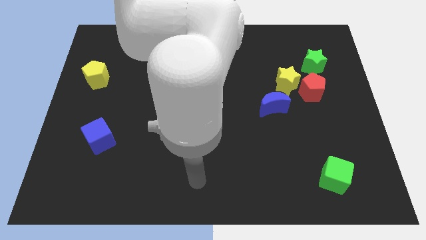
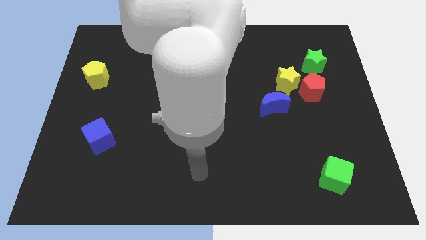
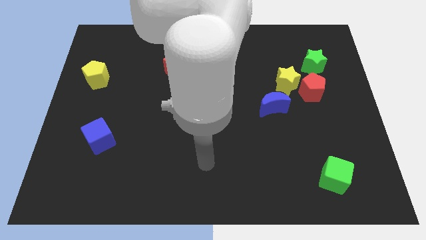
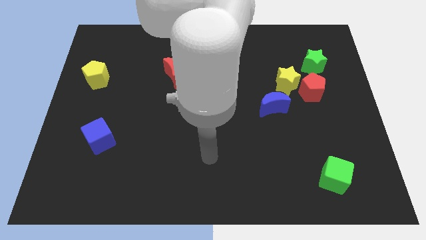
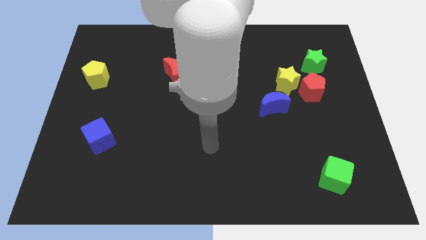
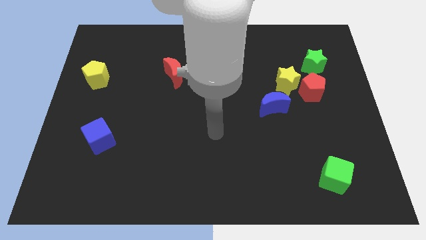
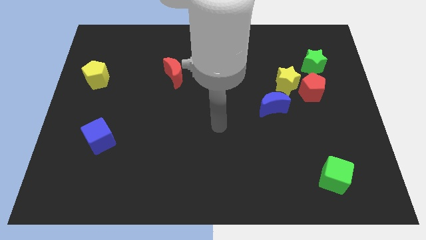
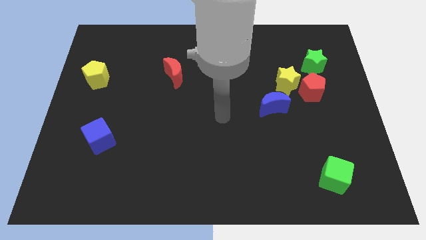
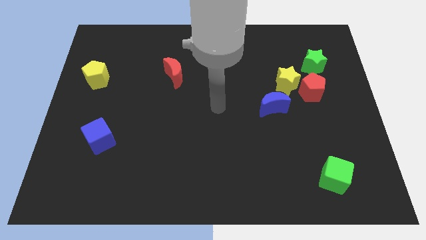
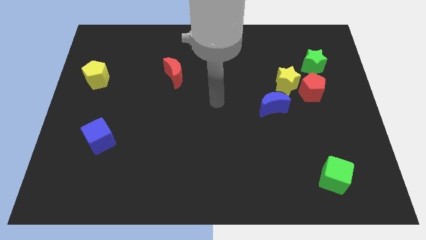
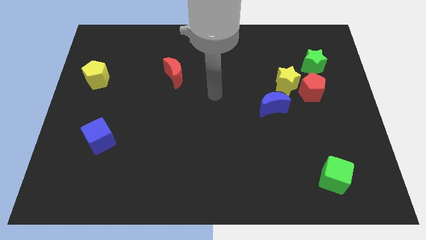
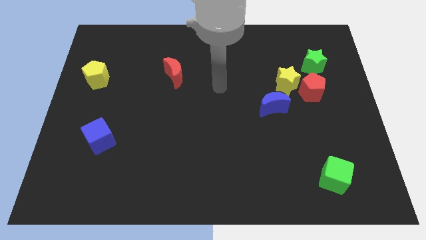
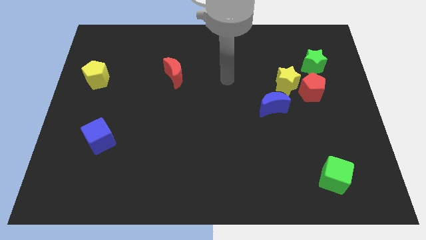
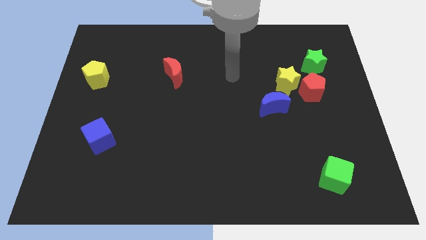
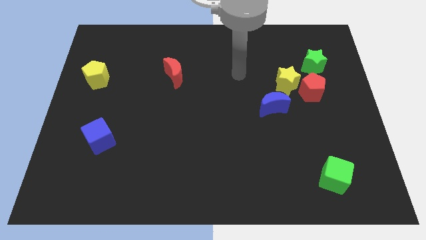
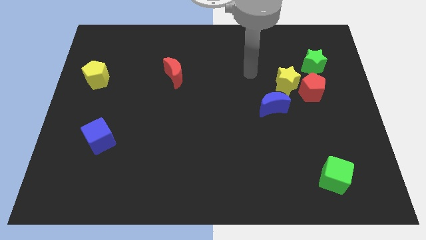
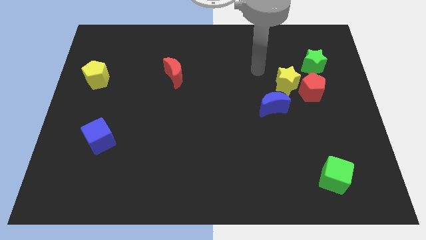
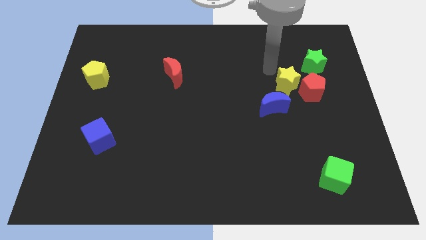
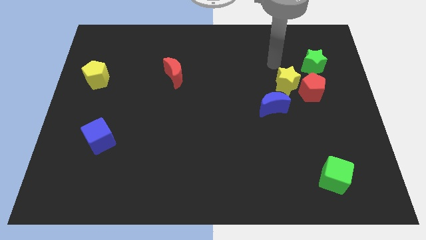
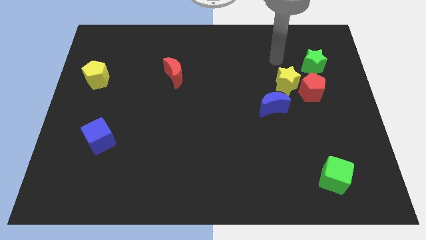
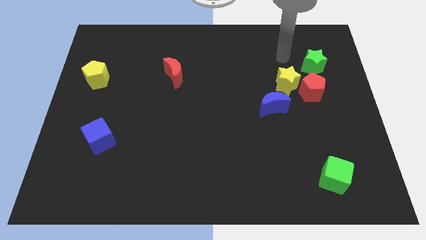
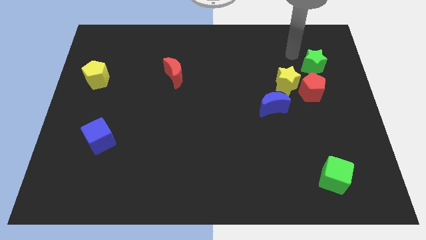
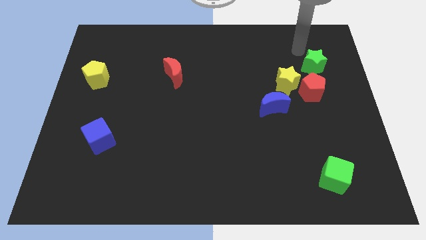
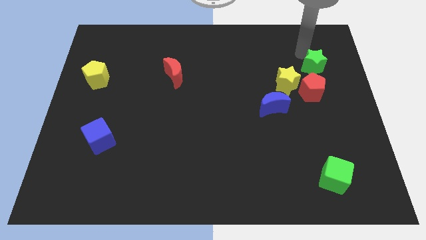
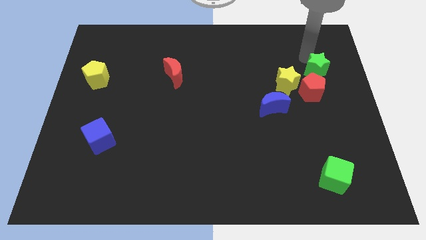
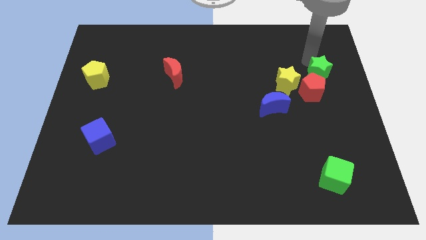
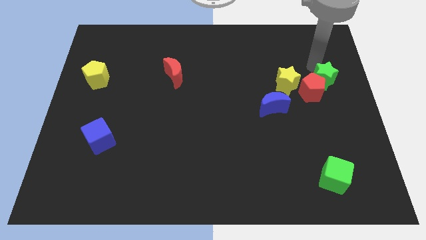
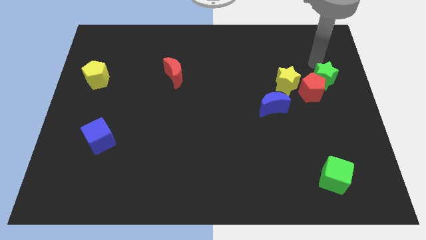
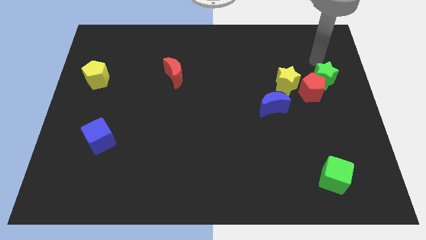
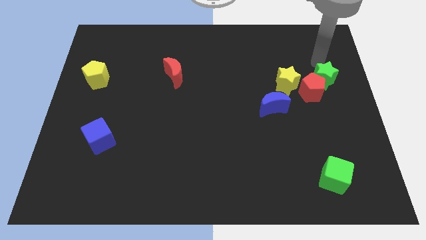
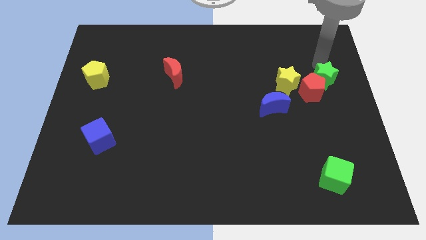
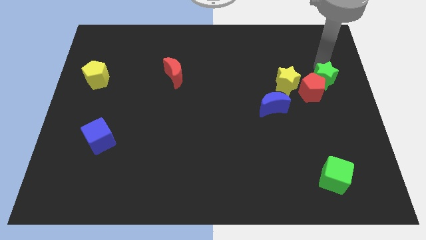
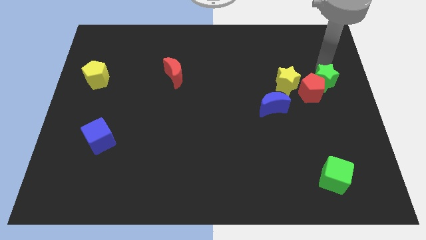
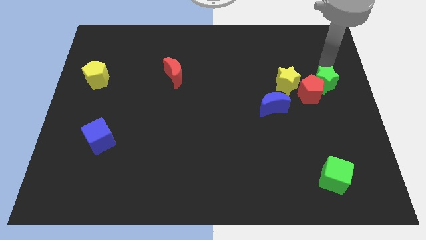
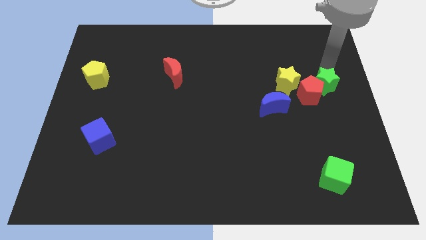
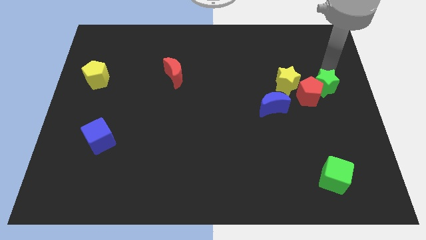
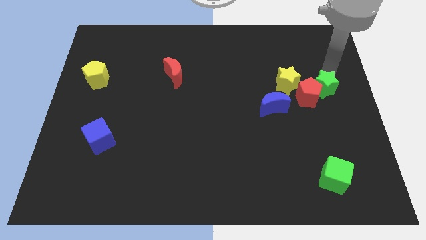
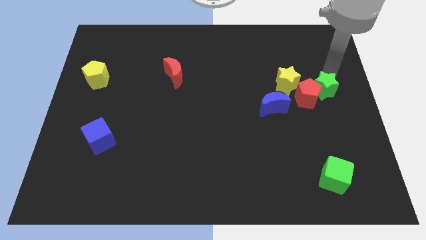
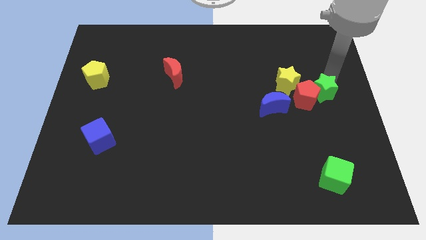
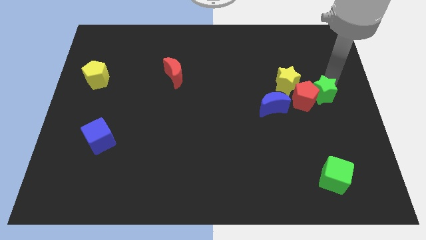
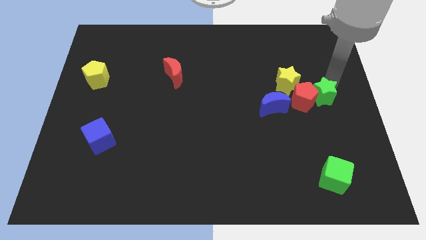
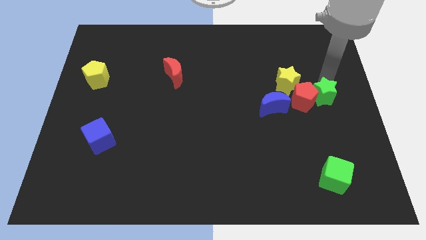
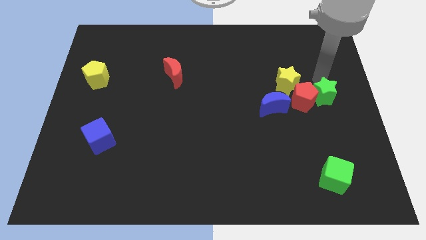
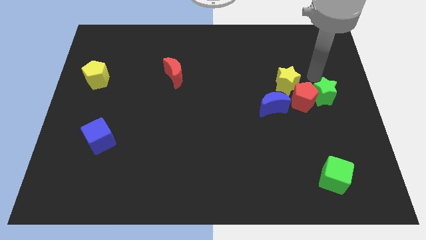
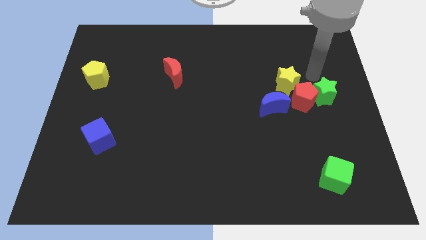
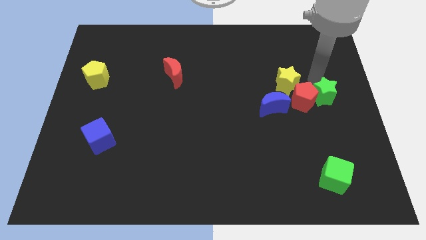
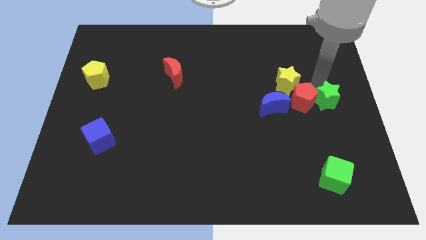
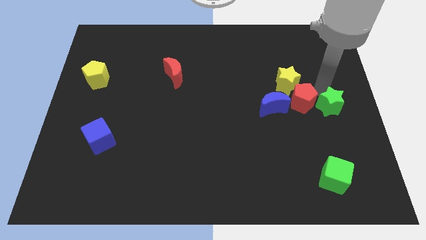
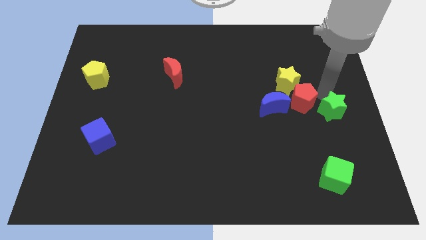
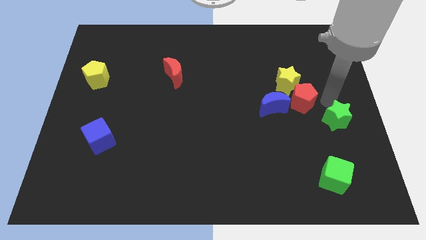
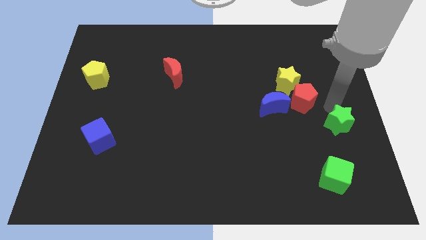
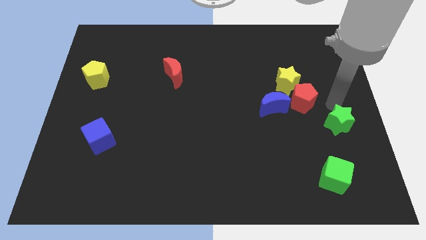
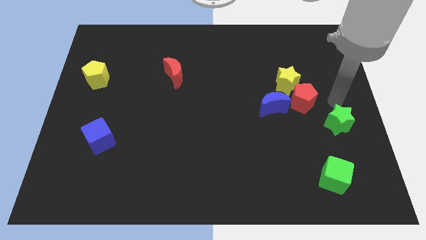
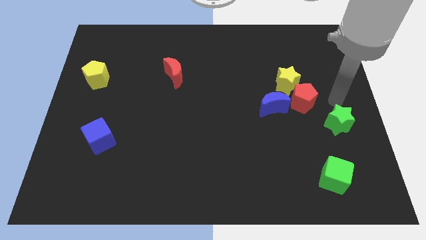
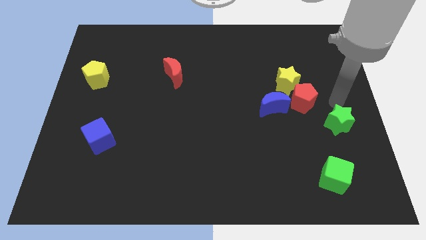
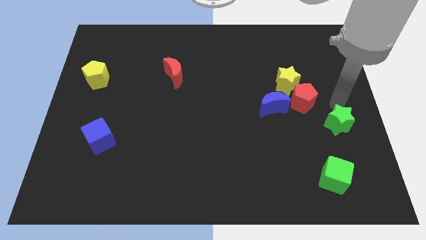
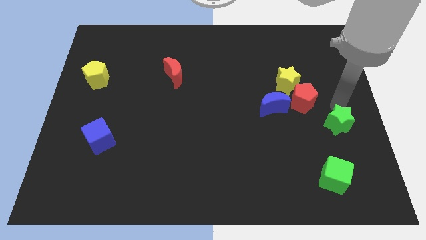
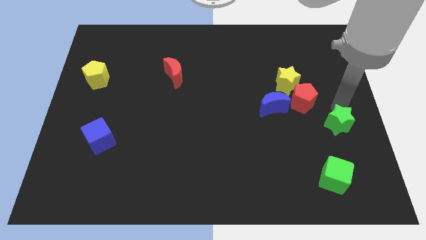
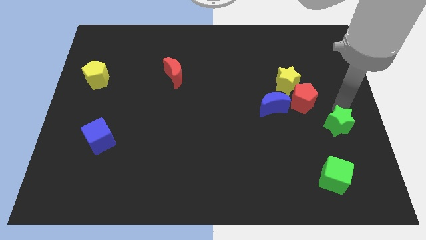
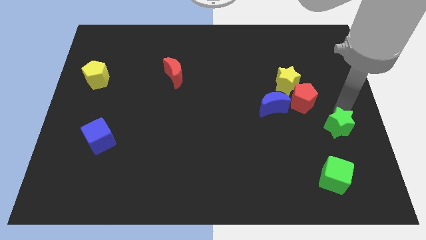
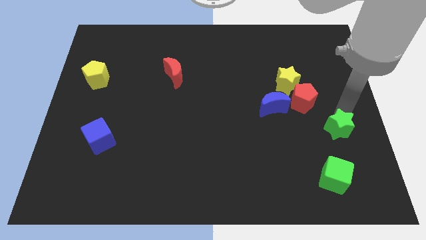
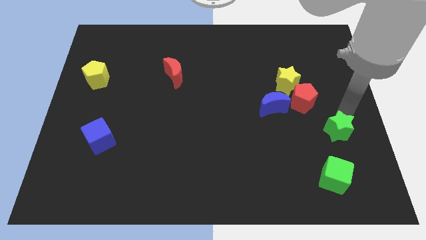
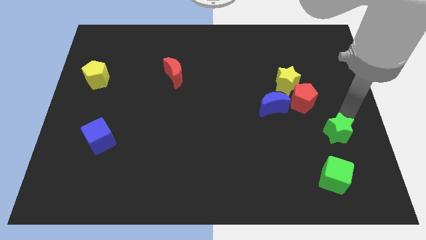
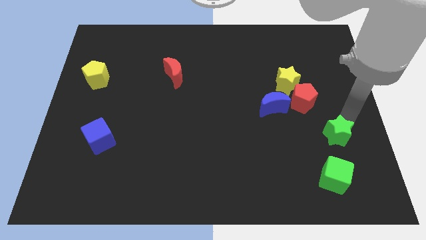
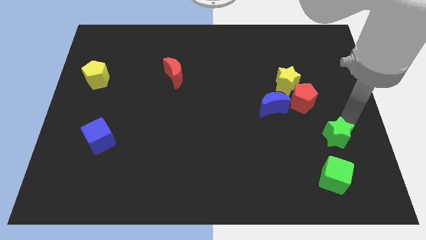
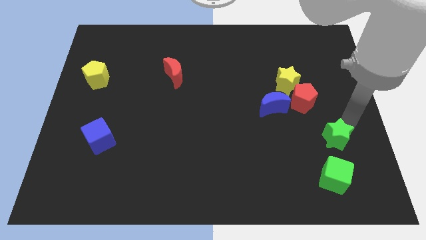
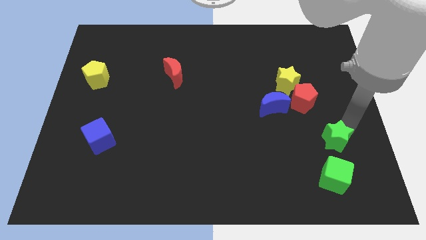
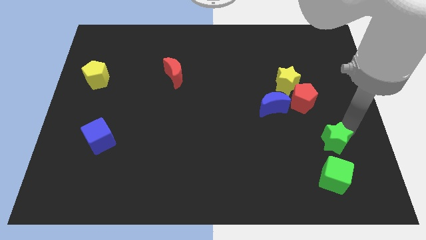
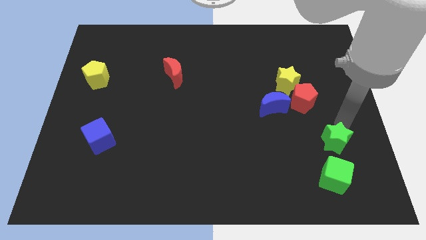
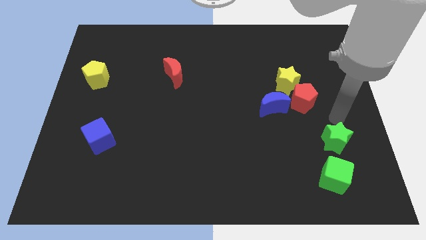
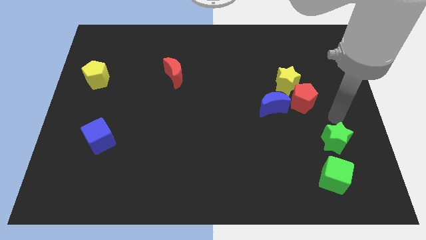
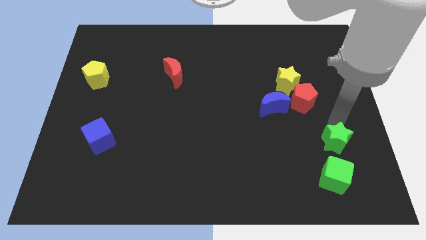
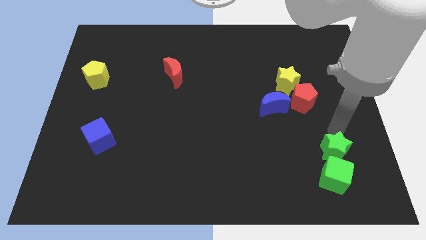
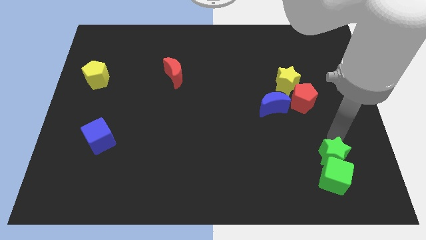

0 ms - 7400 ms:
put the green star next to the green cube
